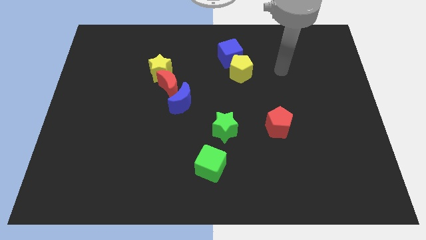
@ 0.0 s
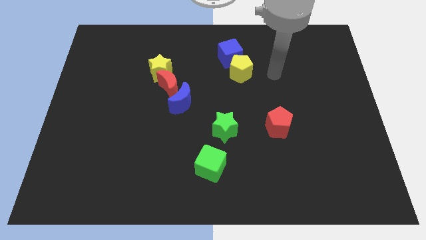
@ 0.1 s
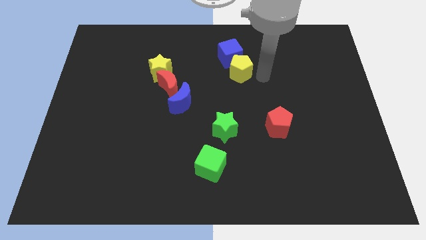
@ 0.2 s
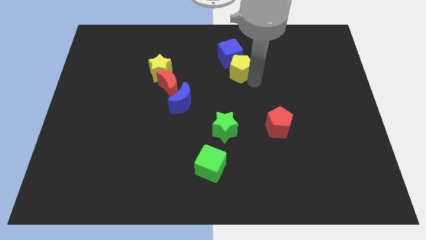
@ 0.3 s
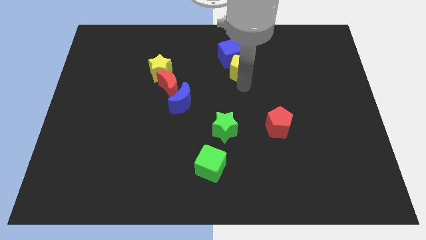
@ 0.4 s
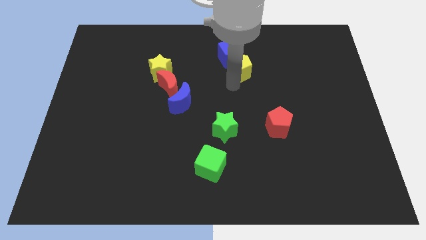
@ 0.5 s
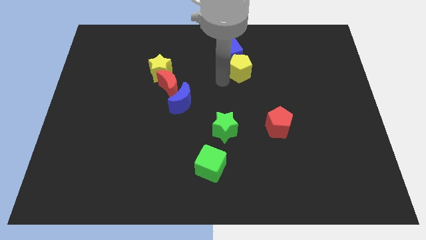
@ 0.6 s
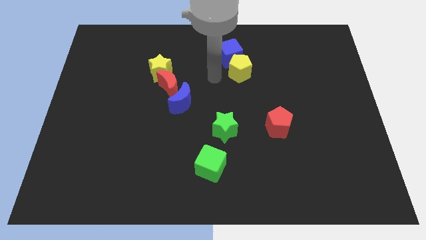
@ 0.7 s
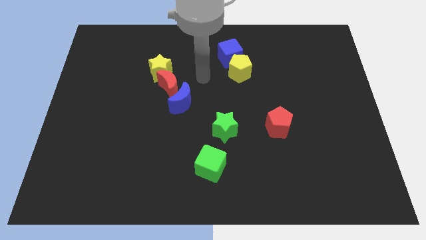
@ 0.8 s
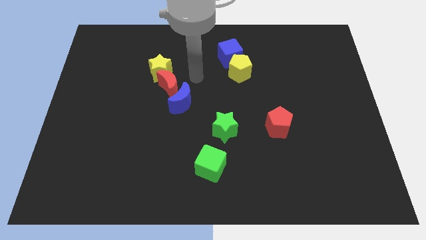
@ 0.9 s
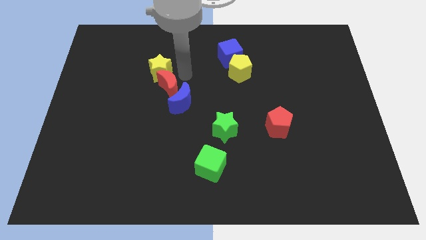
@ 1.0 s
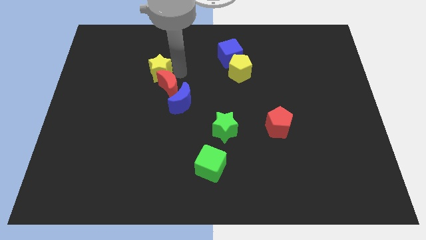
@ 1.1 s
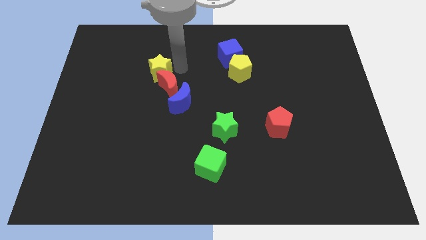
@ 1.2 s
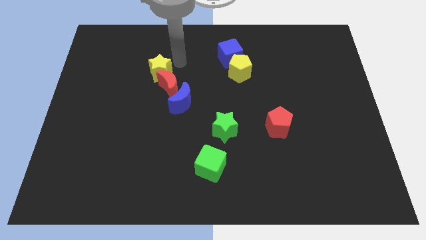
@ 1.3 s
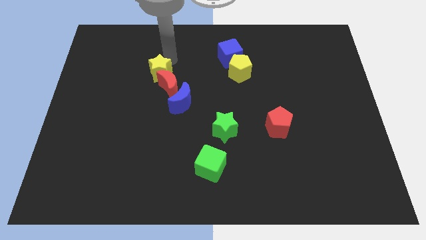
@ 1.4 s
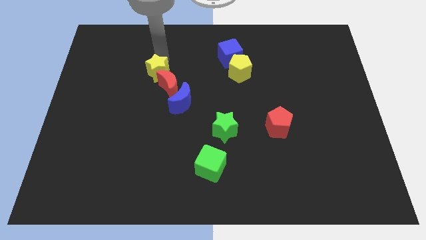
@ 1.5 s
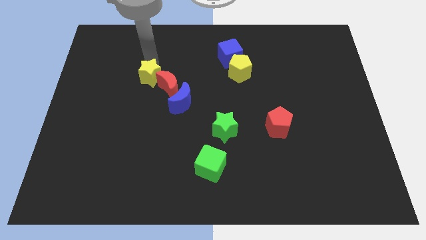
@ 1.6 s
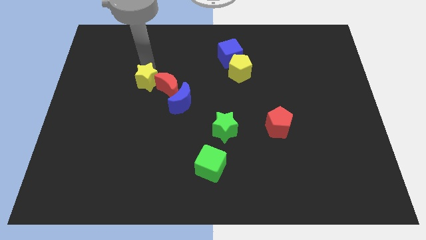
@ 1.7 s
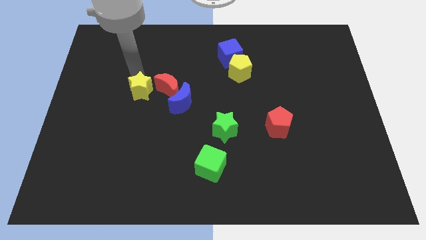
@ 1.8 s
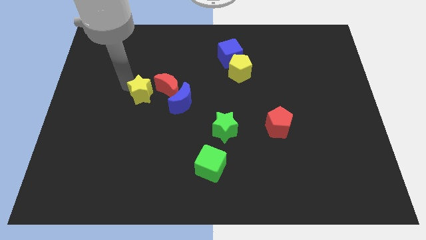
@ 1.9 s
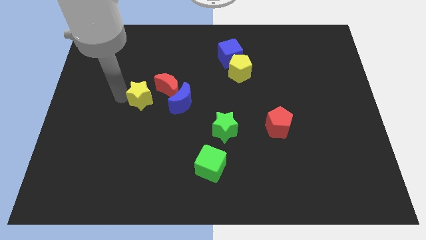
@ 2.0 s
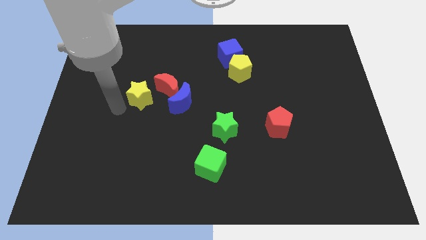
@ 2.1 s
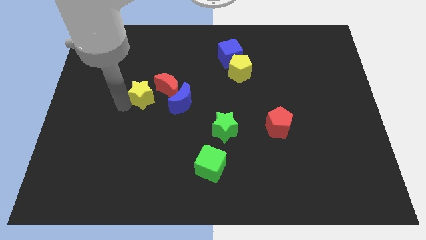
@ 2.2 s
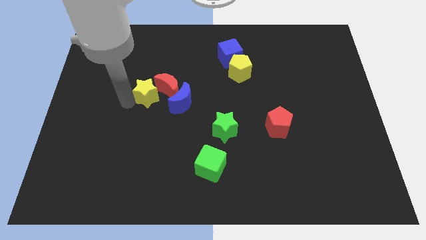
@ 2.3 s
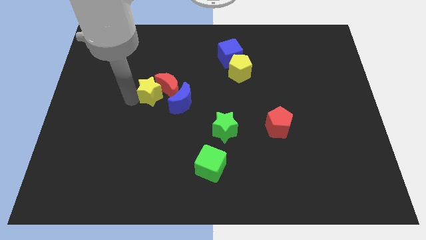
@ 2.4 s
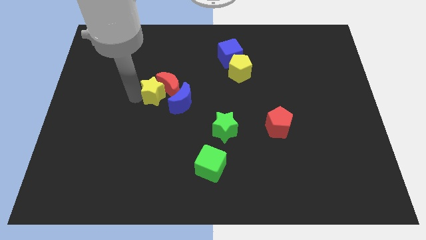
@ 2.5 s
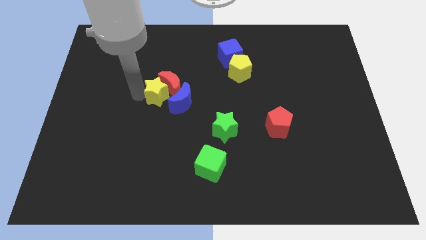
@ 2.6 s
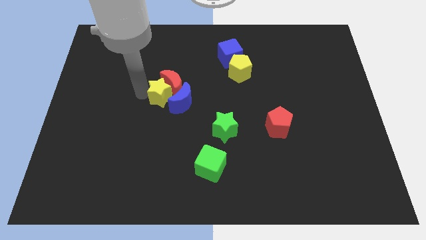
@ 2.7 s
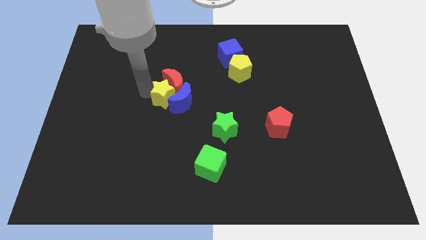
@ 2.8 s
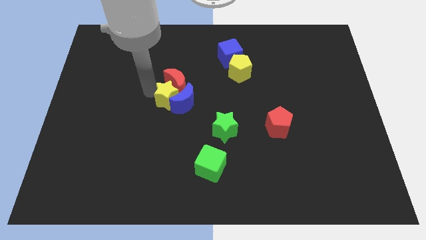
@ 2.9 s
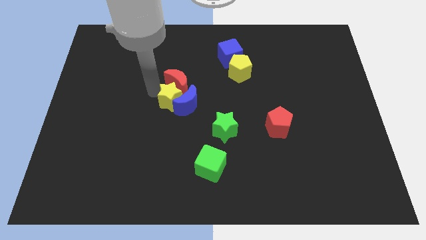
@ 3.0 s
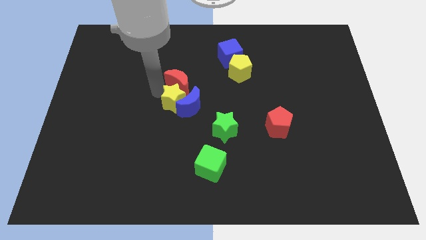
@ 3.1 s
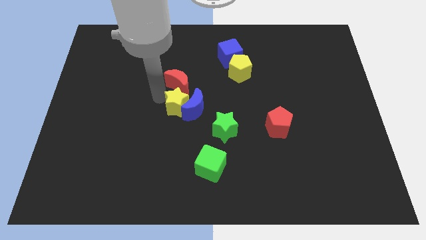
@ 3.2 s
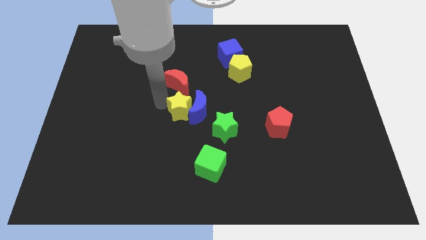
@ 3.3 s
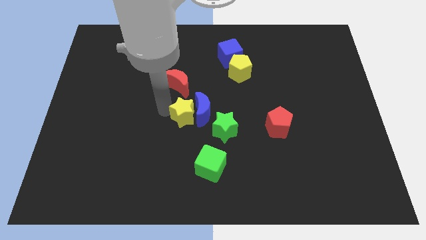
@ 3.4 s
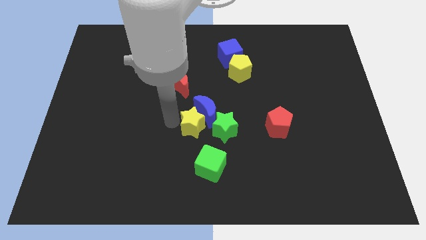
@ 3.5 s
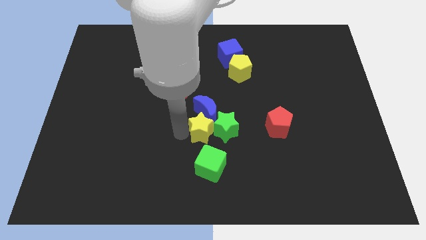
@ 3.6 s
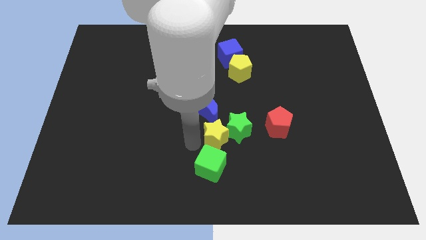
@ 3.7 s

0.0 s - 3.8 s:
move the yellow star downwards and to the right

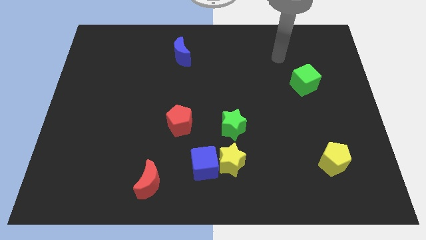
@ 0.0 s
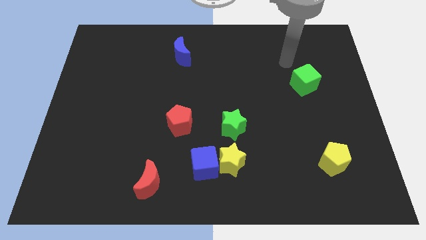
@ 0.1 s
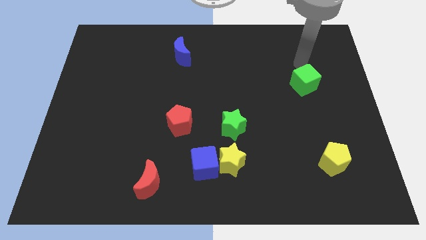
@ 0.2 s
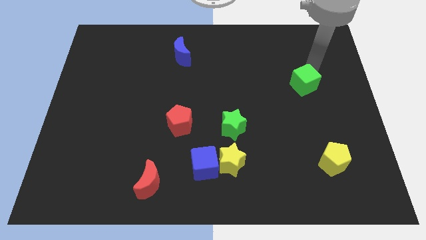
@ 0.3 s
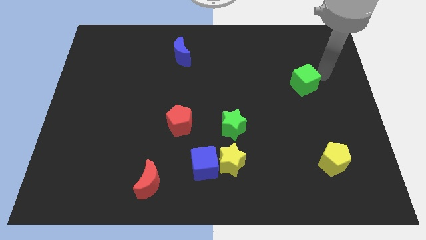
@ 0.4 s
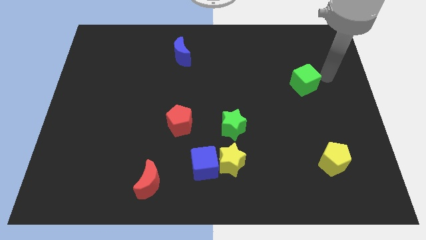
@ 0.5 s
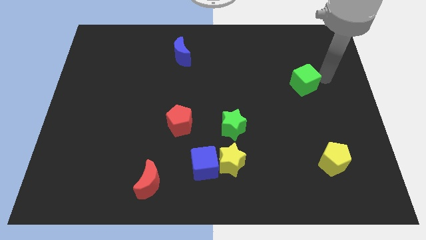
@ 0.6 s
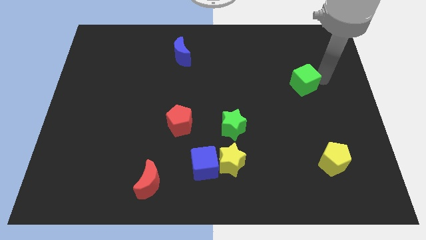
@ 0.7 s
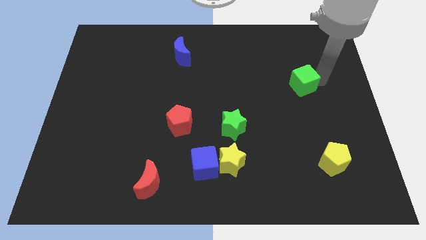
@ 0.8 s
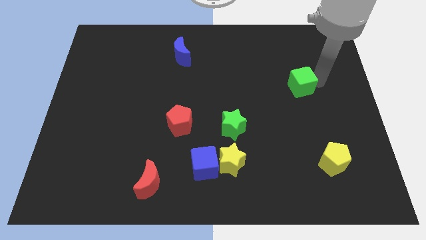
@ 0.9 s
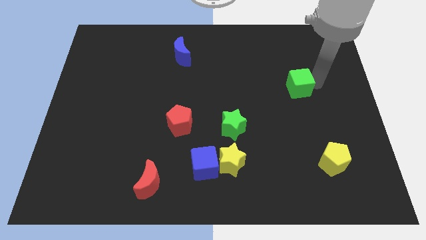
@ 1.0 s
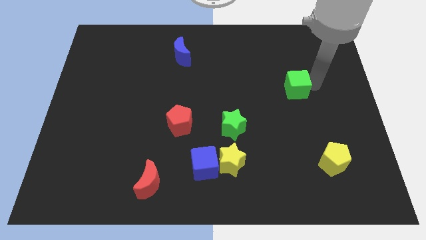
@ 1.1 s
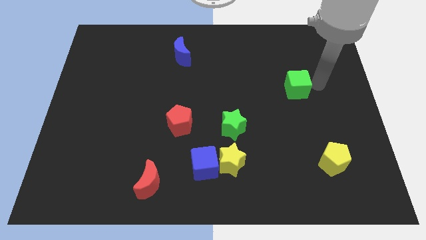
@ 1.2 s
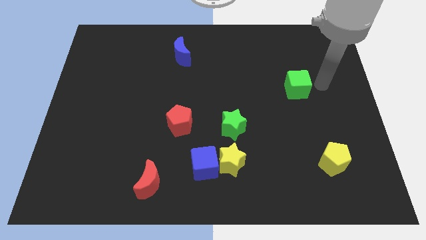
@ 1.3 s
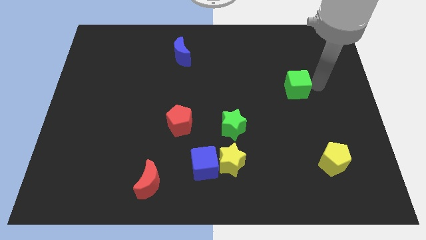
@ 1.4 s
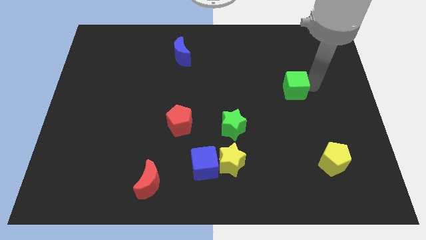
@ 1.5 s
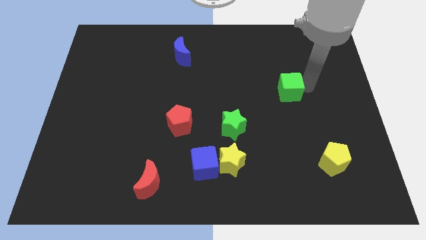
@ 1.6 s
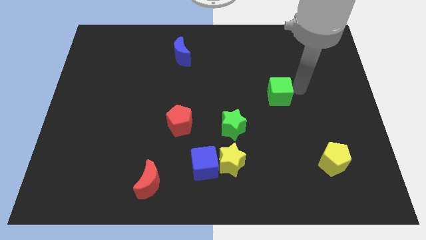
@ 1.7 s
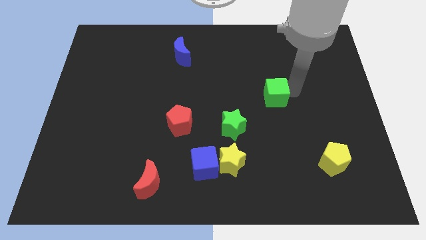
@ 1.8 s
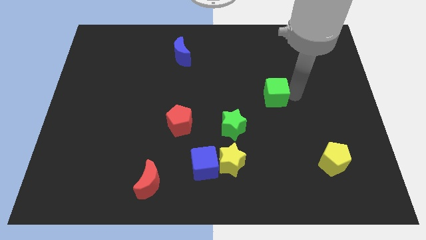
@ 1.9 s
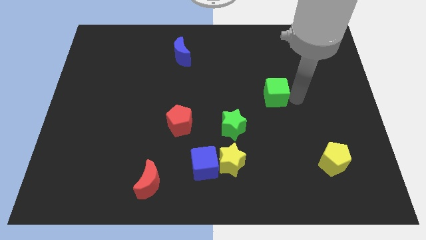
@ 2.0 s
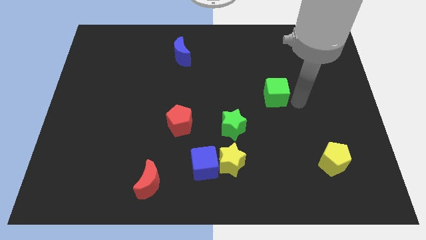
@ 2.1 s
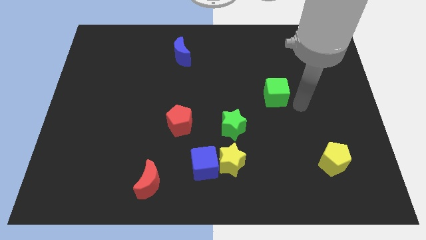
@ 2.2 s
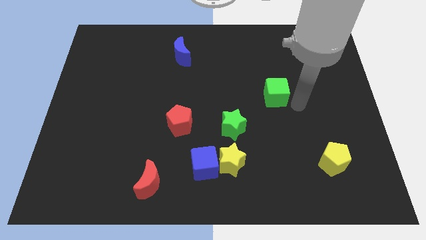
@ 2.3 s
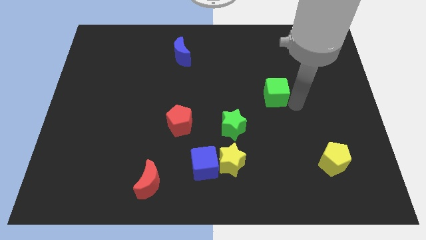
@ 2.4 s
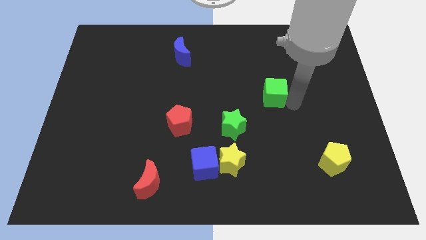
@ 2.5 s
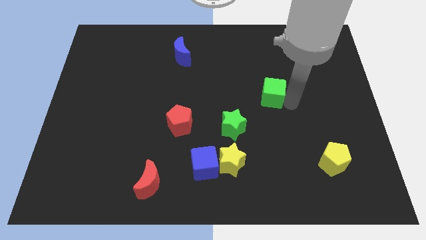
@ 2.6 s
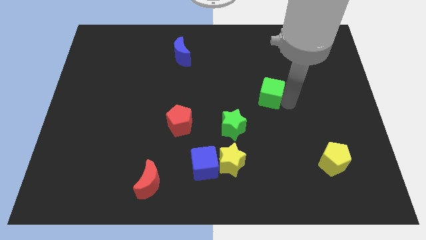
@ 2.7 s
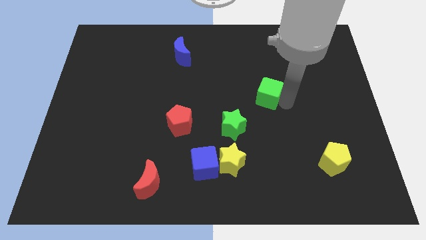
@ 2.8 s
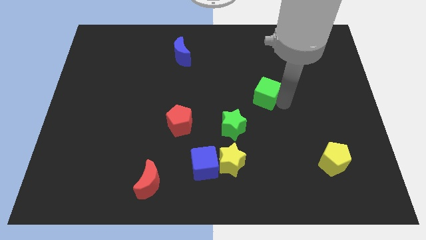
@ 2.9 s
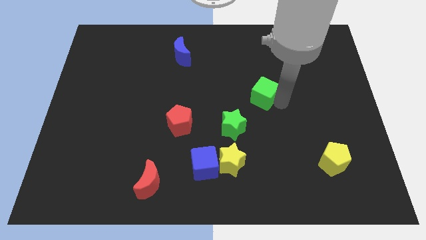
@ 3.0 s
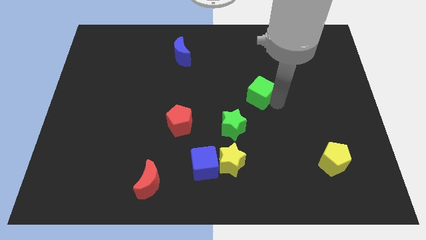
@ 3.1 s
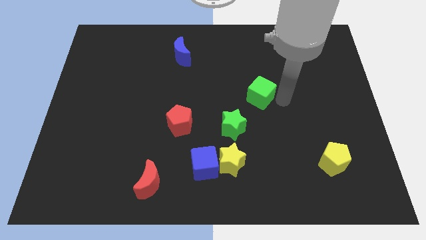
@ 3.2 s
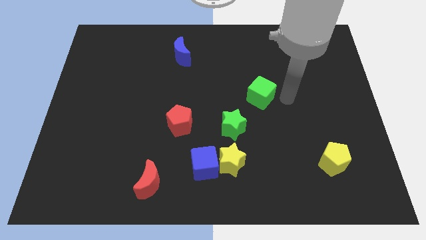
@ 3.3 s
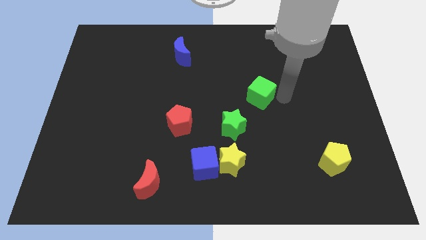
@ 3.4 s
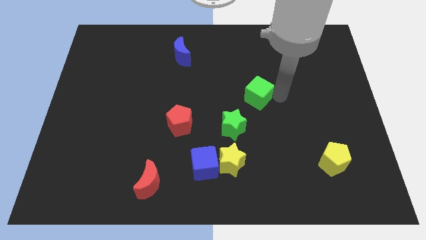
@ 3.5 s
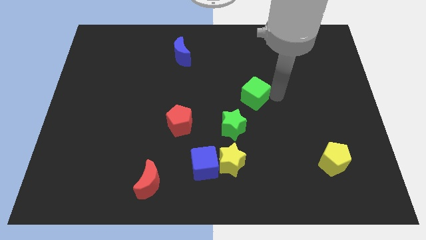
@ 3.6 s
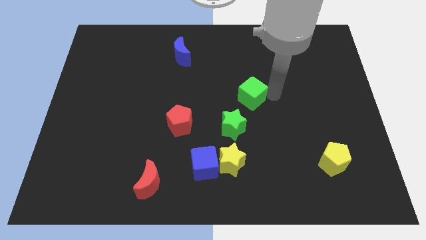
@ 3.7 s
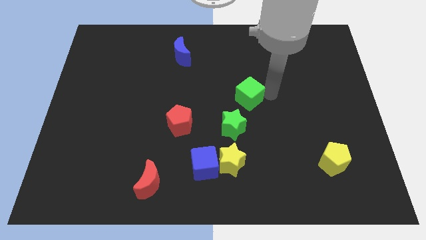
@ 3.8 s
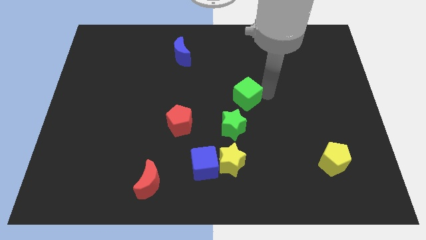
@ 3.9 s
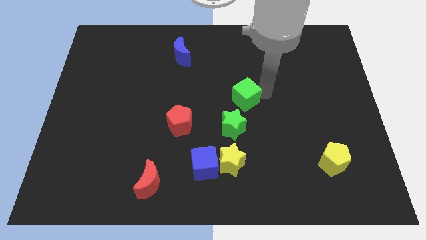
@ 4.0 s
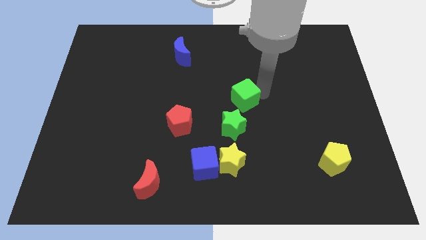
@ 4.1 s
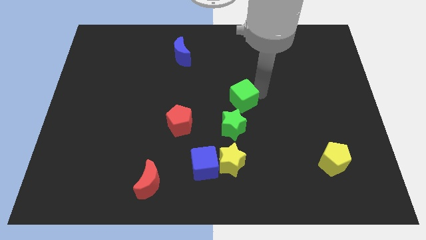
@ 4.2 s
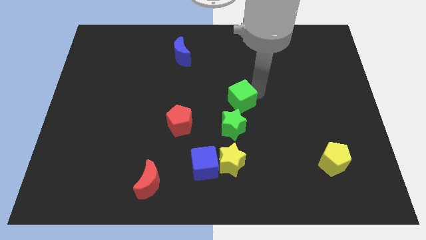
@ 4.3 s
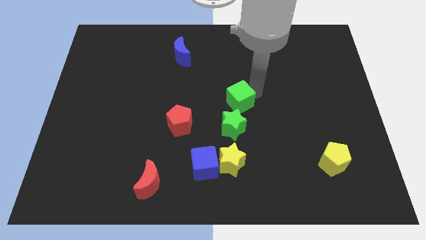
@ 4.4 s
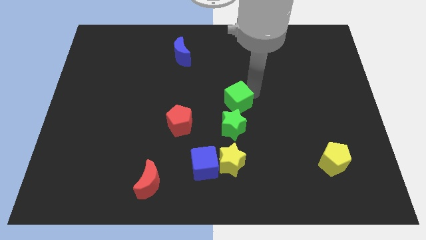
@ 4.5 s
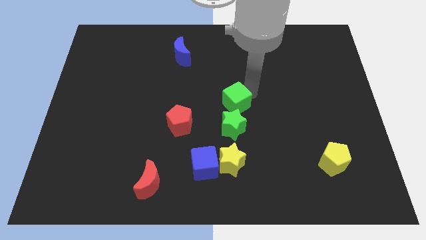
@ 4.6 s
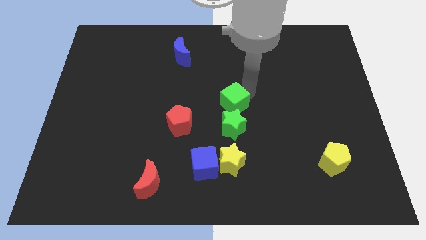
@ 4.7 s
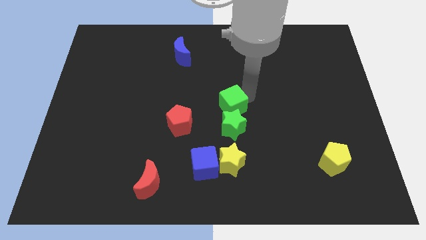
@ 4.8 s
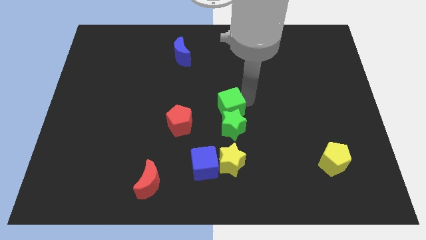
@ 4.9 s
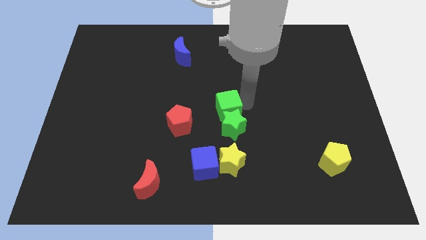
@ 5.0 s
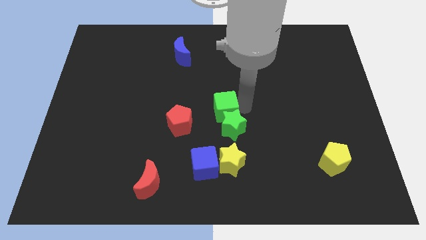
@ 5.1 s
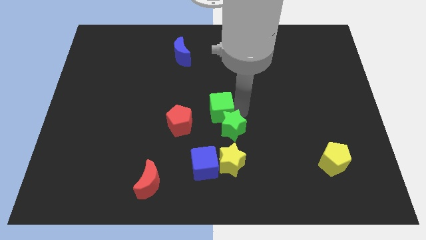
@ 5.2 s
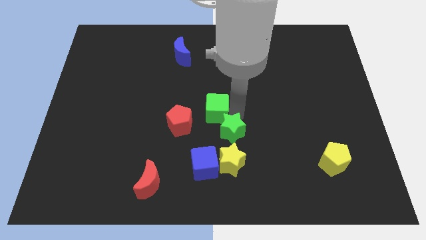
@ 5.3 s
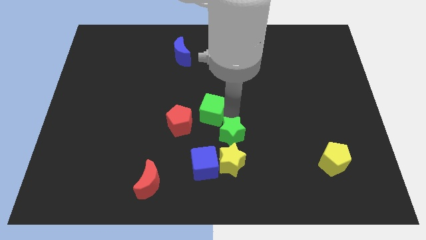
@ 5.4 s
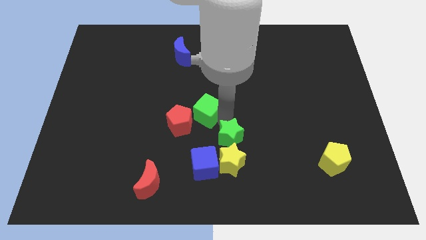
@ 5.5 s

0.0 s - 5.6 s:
move the green cube to the left
